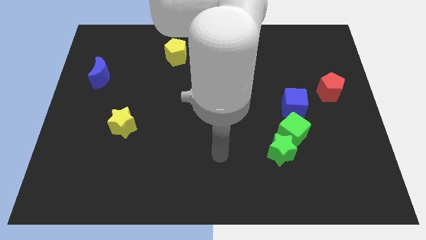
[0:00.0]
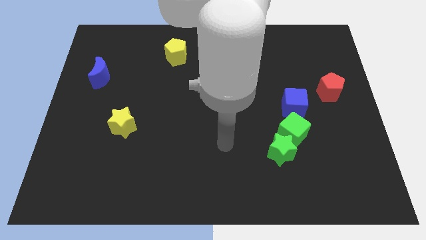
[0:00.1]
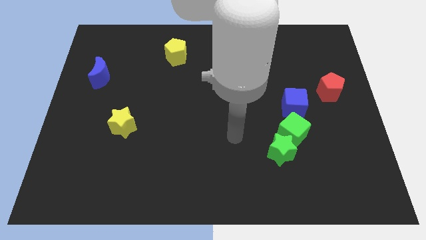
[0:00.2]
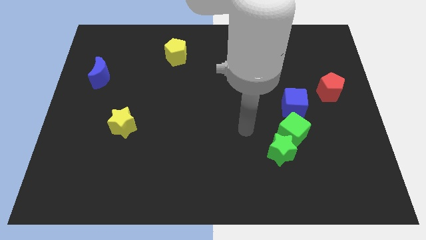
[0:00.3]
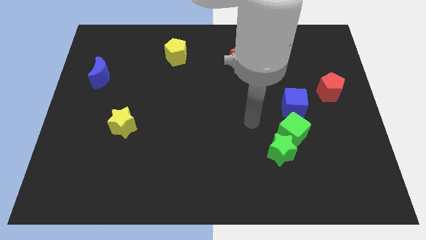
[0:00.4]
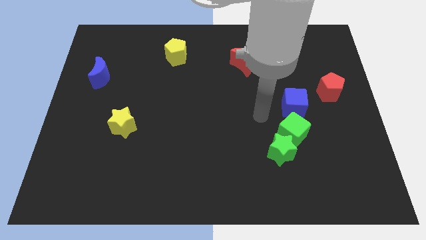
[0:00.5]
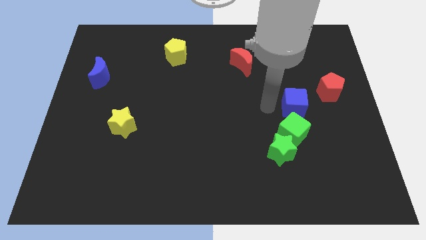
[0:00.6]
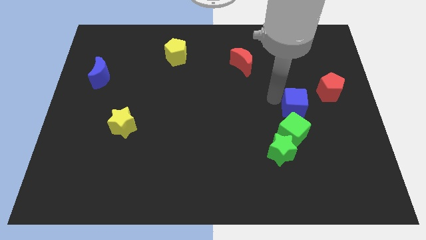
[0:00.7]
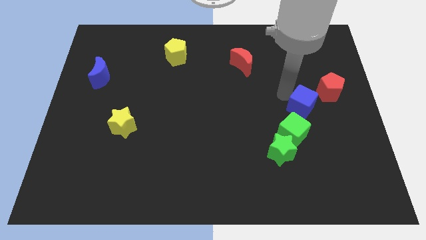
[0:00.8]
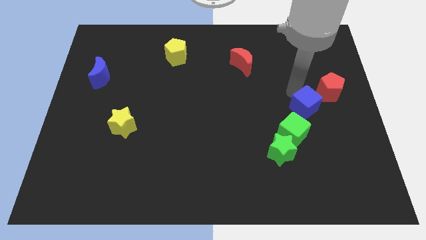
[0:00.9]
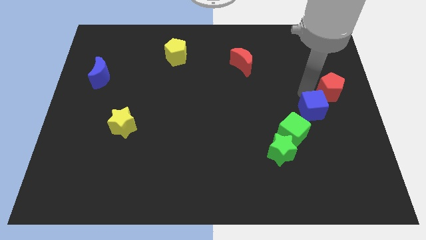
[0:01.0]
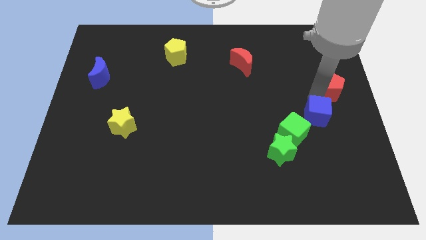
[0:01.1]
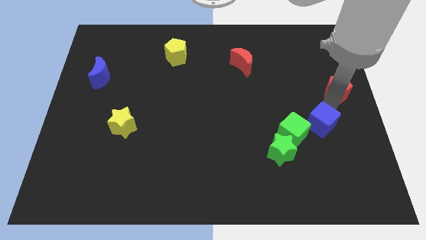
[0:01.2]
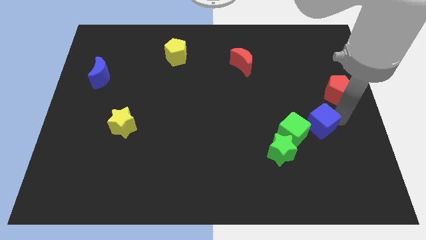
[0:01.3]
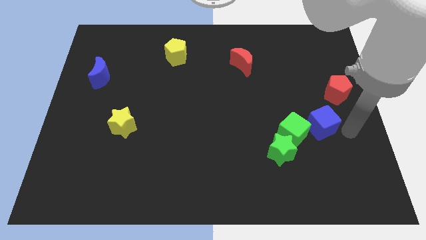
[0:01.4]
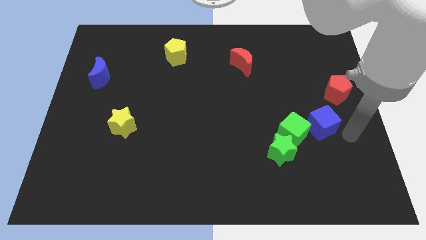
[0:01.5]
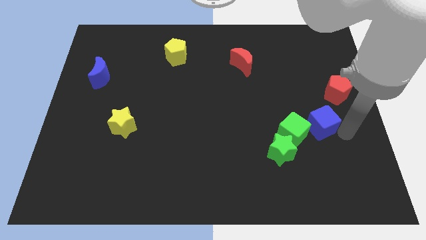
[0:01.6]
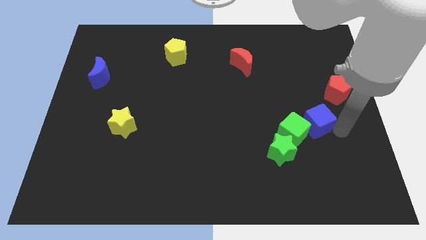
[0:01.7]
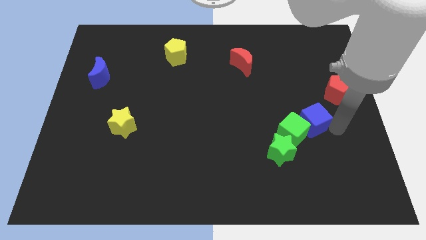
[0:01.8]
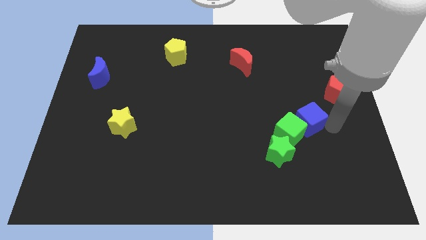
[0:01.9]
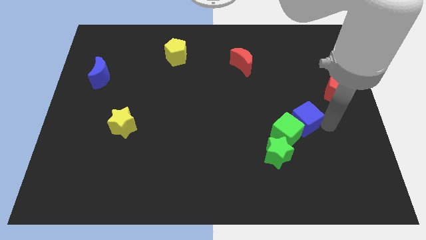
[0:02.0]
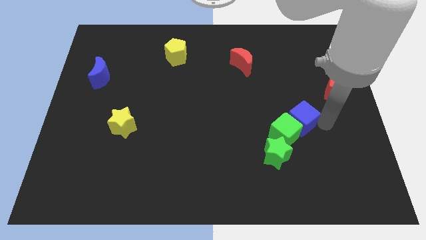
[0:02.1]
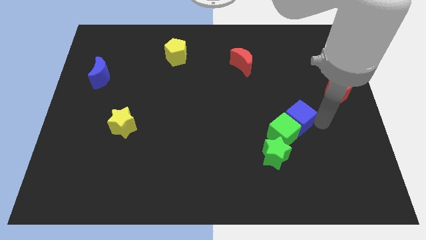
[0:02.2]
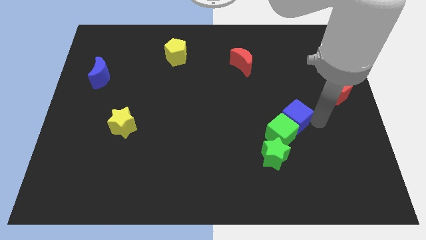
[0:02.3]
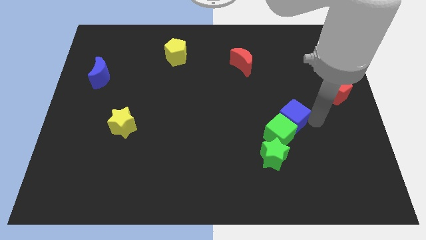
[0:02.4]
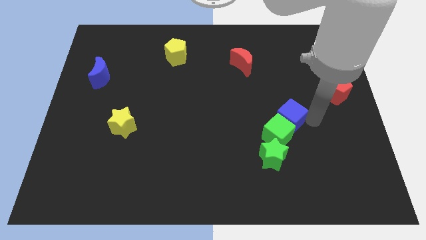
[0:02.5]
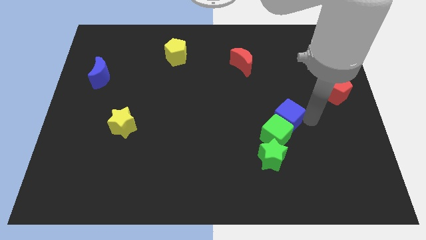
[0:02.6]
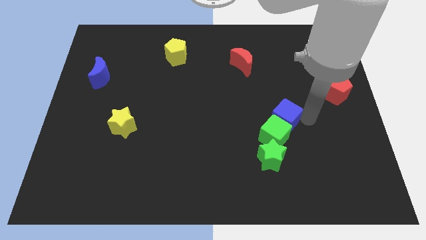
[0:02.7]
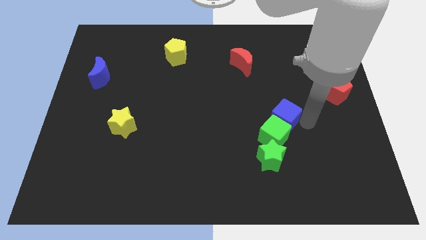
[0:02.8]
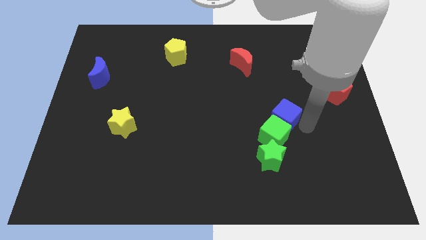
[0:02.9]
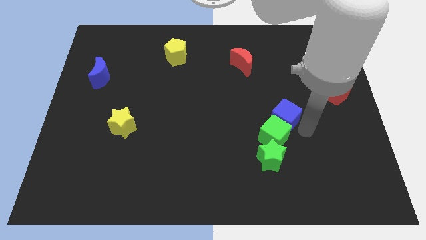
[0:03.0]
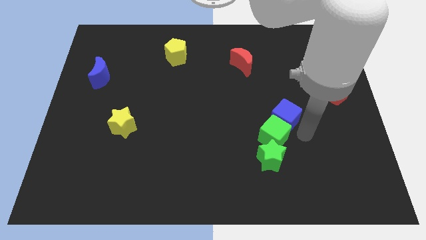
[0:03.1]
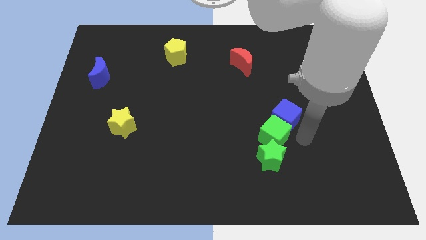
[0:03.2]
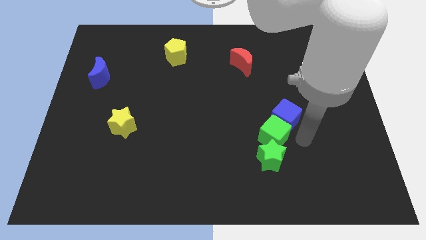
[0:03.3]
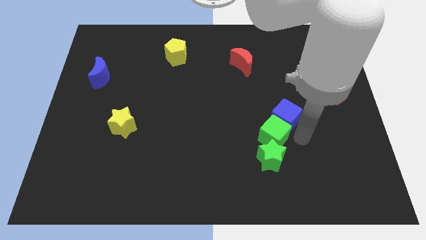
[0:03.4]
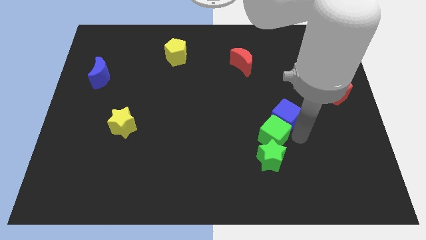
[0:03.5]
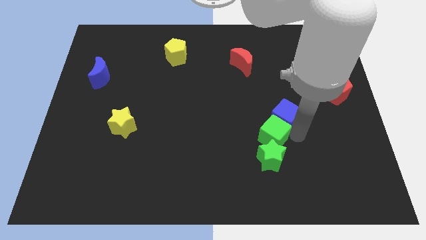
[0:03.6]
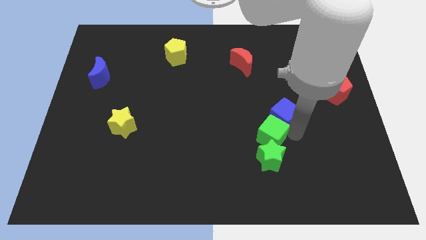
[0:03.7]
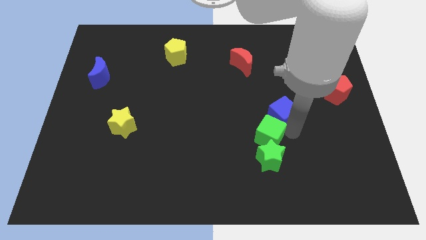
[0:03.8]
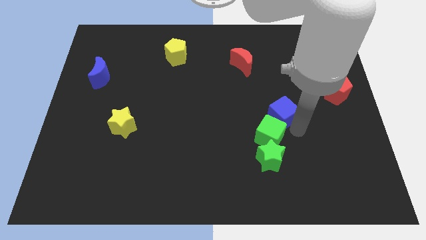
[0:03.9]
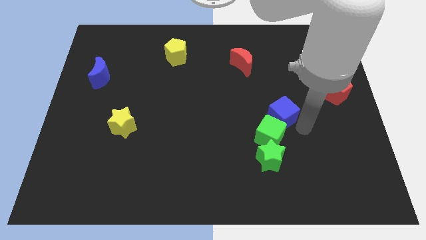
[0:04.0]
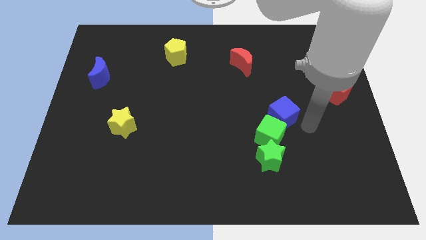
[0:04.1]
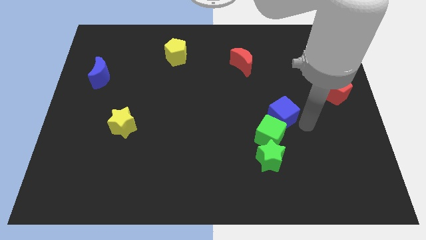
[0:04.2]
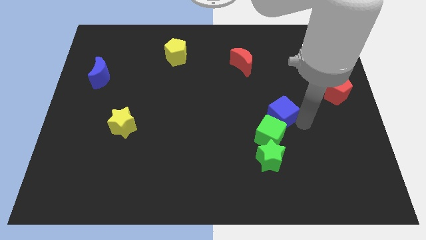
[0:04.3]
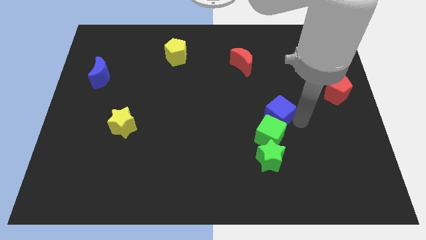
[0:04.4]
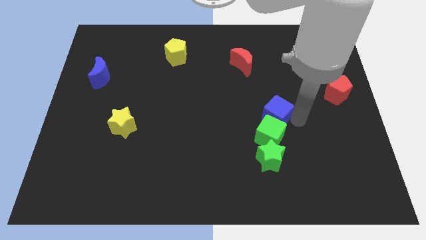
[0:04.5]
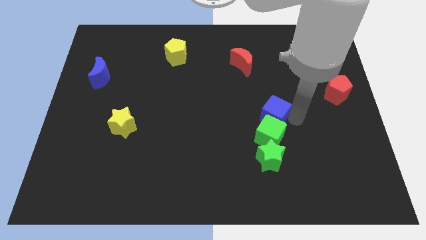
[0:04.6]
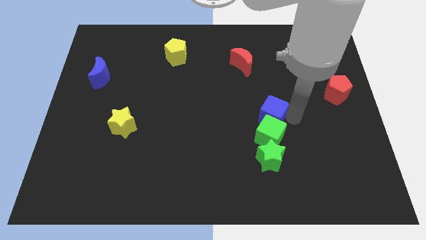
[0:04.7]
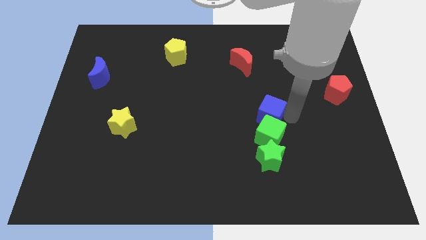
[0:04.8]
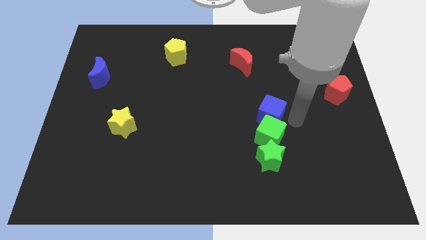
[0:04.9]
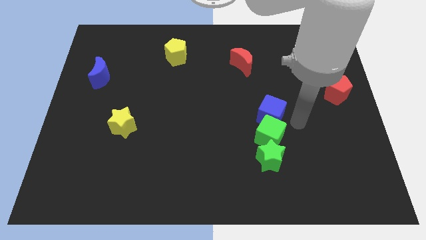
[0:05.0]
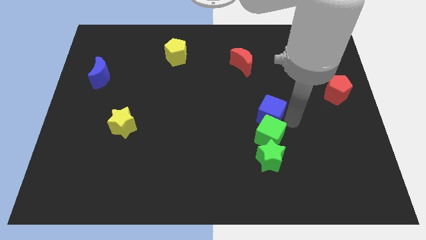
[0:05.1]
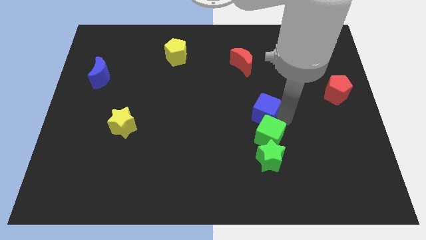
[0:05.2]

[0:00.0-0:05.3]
slide the blue cube to the left a little bit

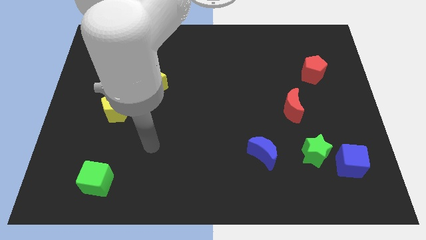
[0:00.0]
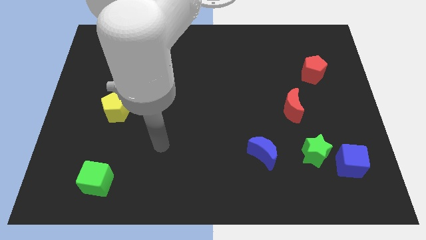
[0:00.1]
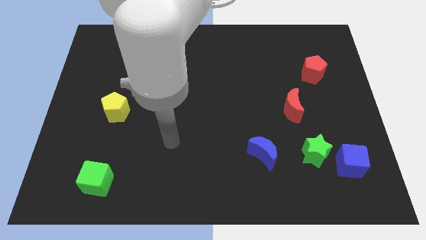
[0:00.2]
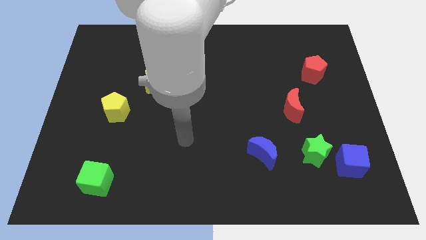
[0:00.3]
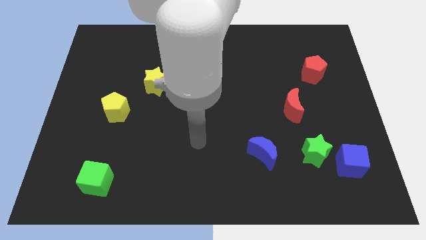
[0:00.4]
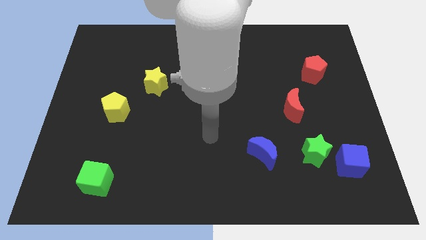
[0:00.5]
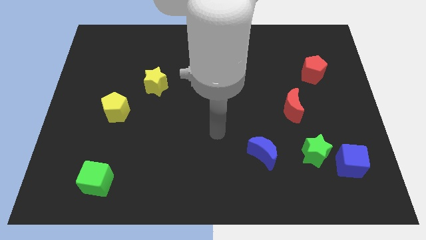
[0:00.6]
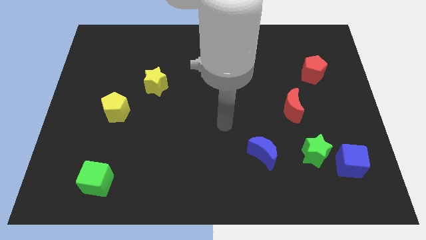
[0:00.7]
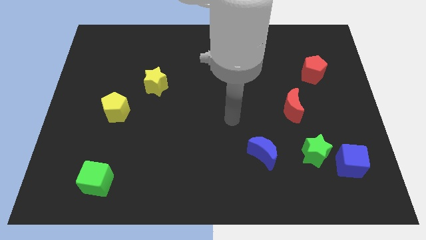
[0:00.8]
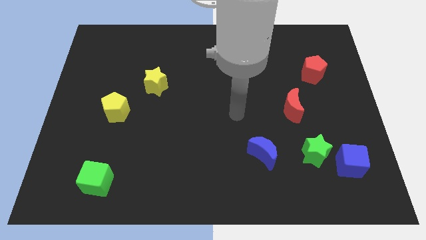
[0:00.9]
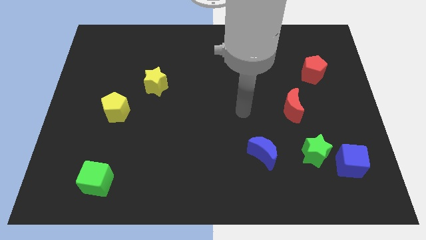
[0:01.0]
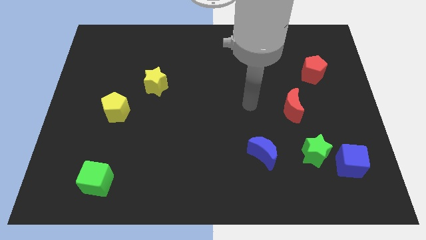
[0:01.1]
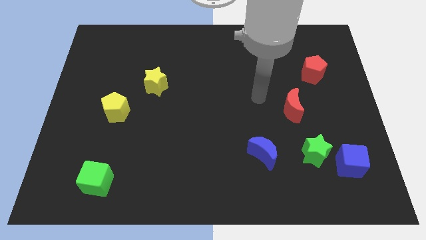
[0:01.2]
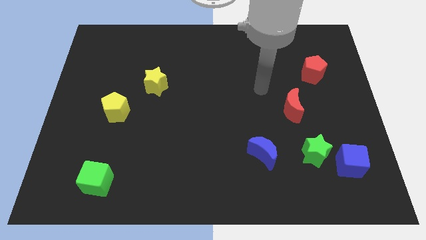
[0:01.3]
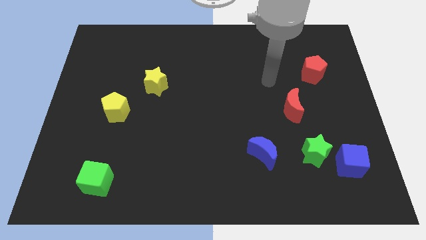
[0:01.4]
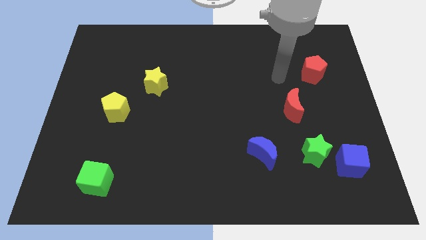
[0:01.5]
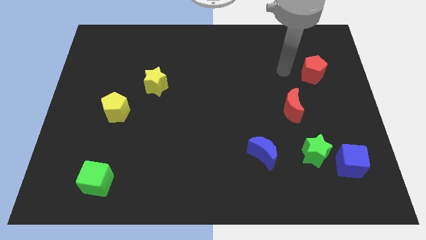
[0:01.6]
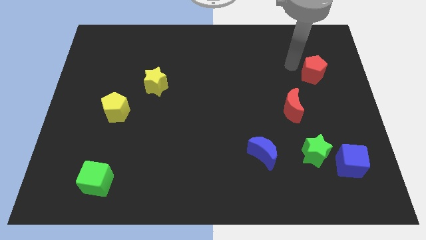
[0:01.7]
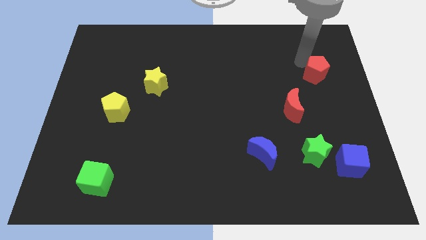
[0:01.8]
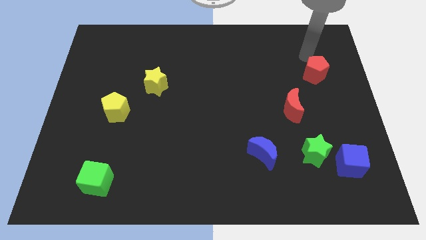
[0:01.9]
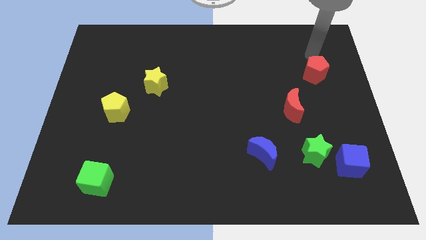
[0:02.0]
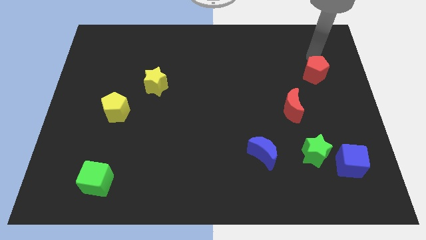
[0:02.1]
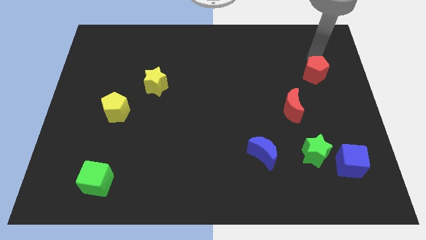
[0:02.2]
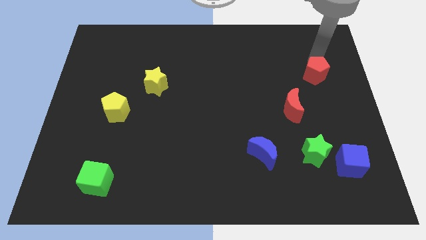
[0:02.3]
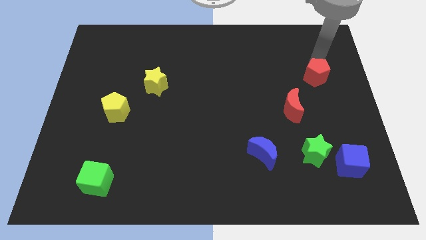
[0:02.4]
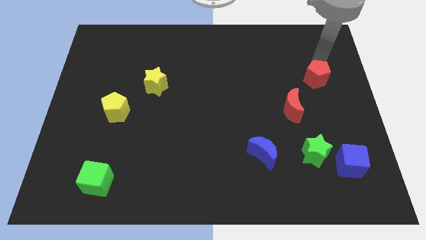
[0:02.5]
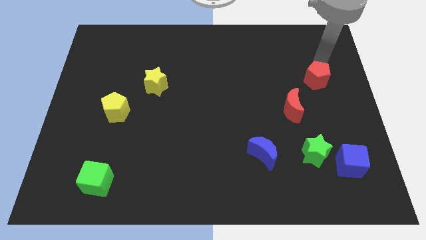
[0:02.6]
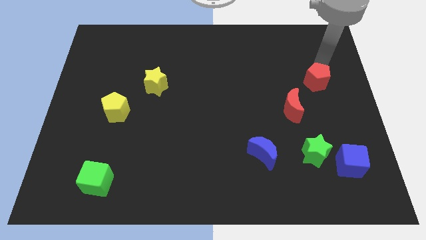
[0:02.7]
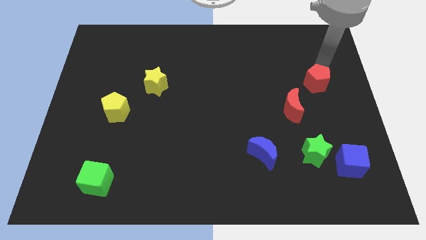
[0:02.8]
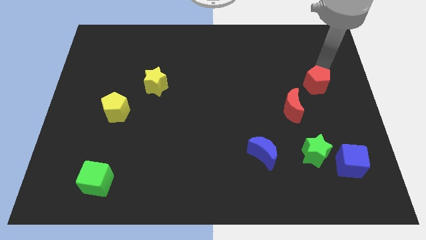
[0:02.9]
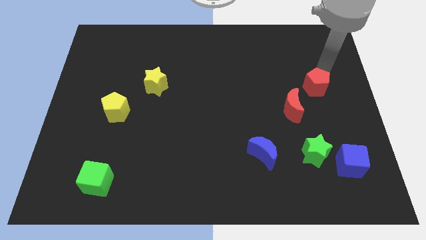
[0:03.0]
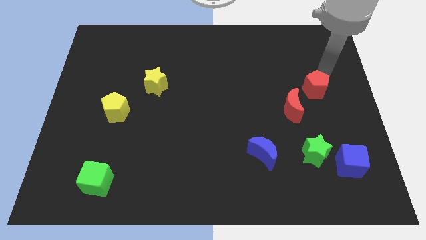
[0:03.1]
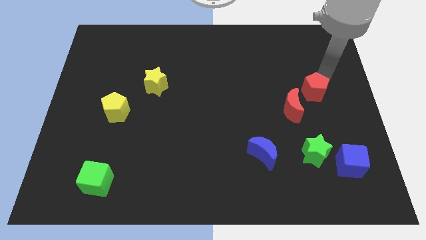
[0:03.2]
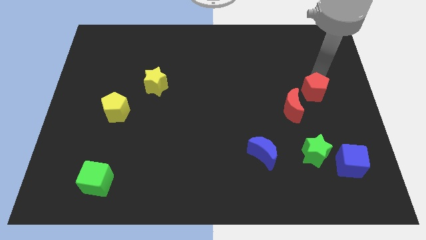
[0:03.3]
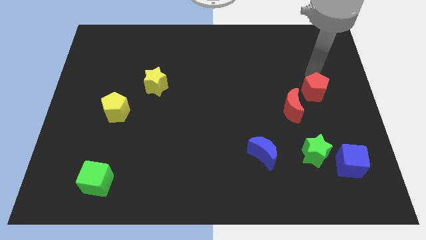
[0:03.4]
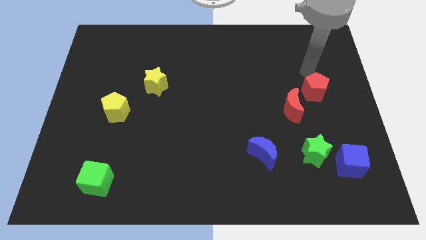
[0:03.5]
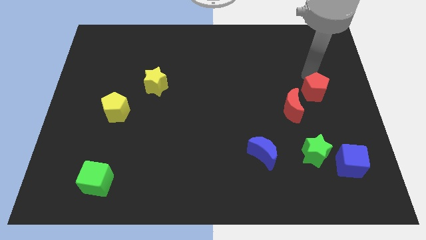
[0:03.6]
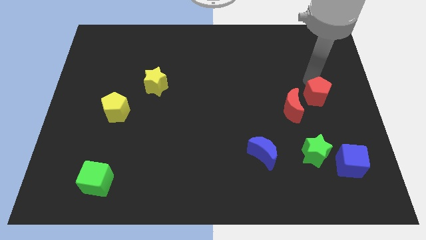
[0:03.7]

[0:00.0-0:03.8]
move the red pentagon a little bit downwards
